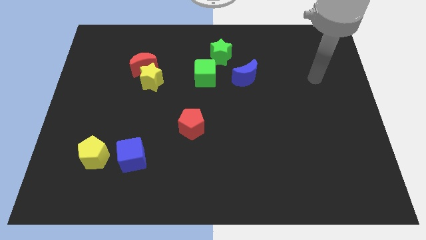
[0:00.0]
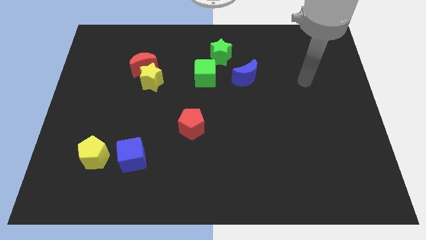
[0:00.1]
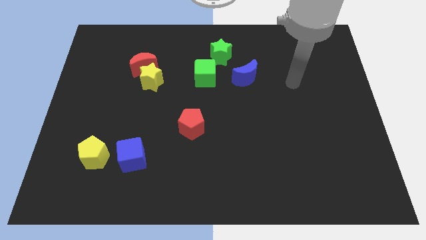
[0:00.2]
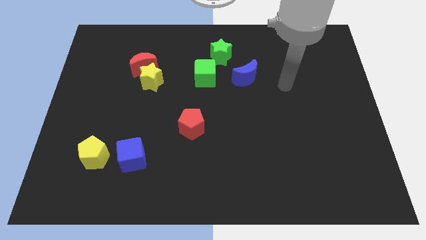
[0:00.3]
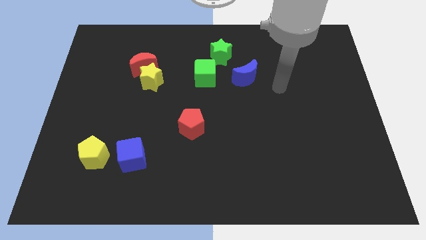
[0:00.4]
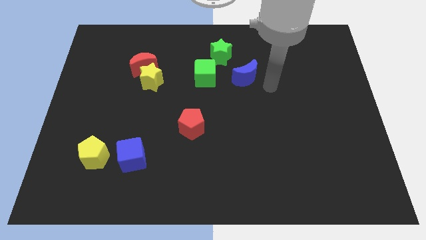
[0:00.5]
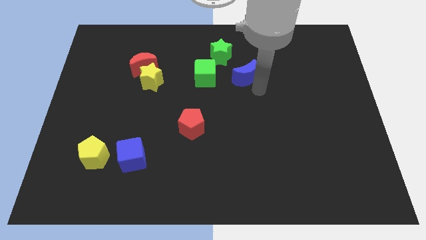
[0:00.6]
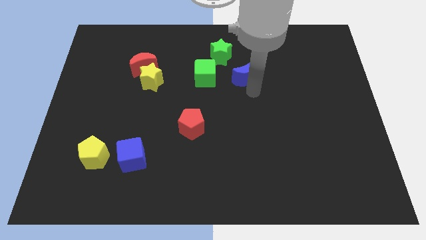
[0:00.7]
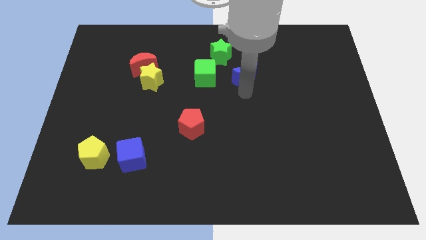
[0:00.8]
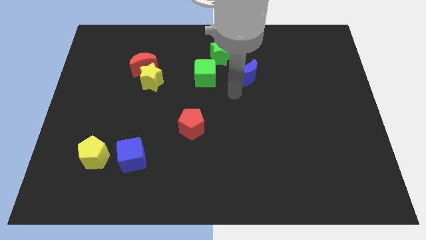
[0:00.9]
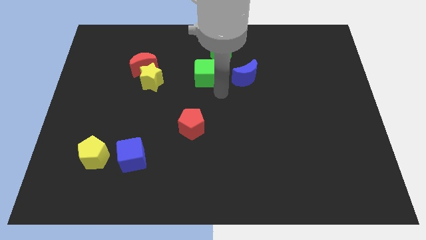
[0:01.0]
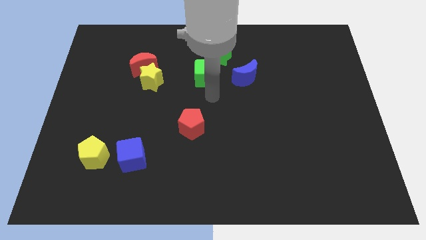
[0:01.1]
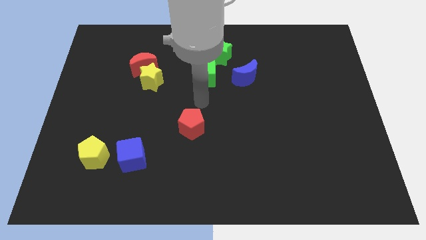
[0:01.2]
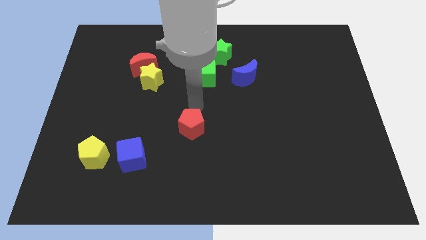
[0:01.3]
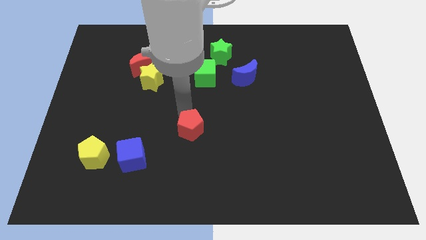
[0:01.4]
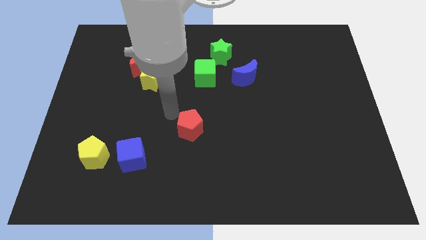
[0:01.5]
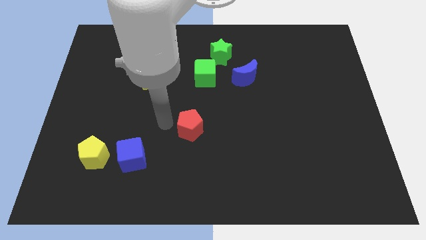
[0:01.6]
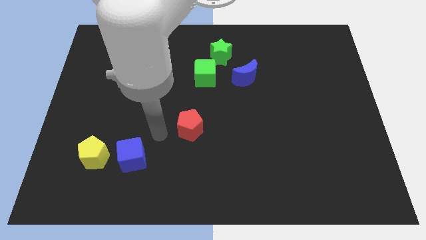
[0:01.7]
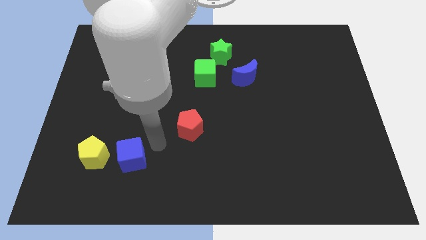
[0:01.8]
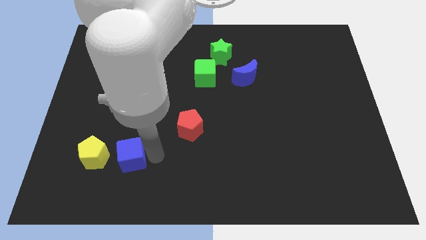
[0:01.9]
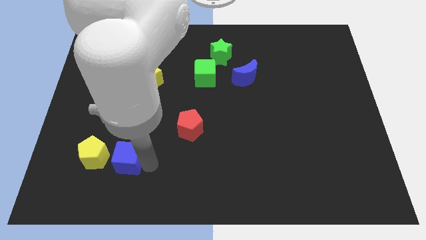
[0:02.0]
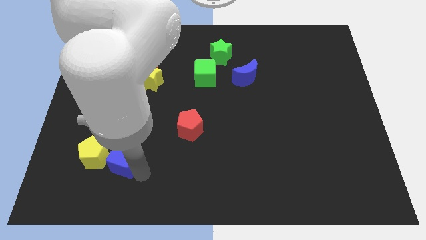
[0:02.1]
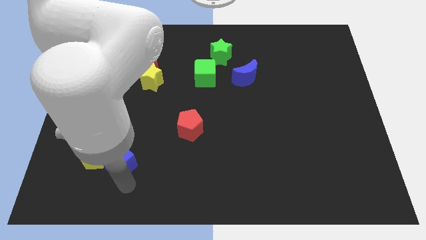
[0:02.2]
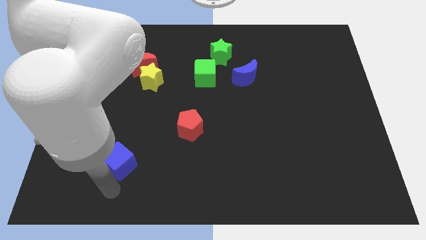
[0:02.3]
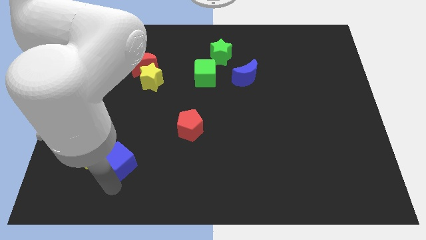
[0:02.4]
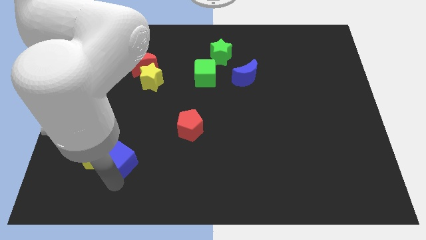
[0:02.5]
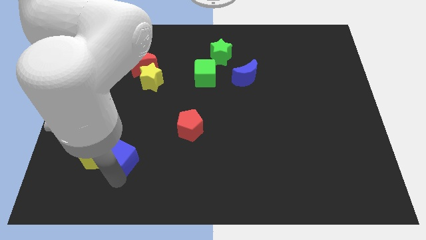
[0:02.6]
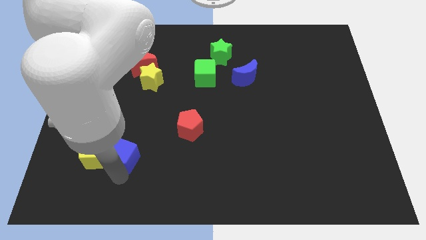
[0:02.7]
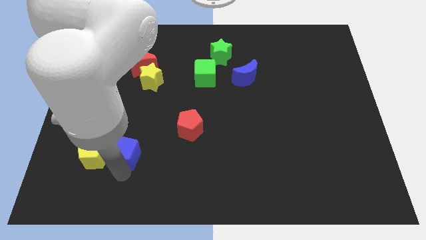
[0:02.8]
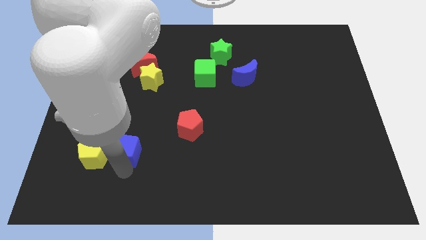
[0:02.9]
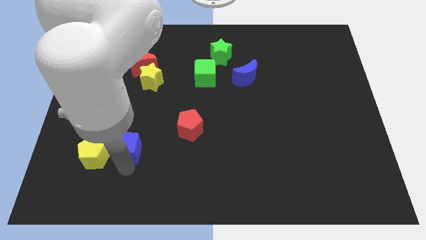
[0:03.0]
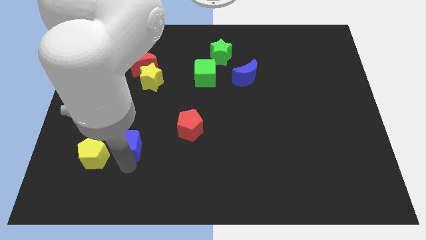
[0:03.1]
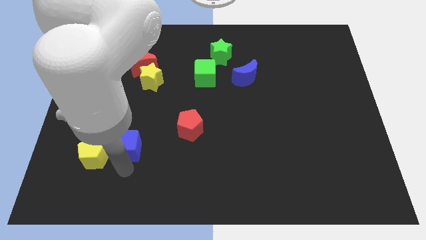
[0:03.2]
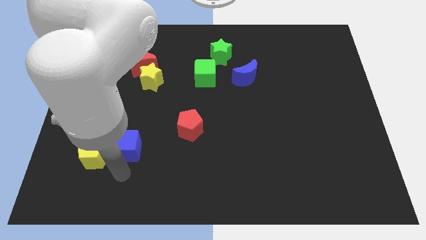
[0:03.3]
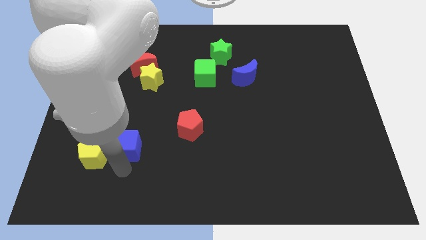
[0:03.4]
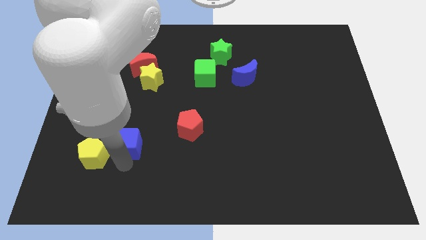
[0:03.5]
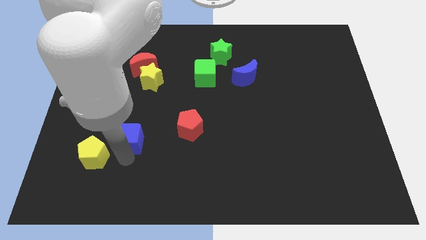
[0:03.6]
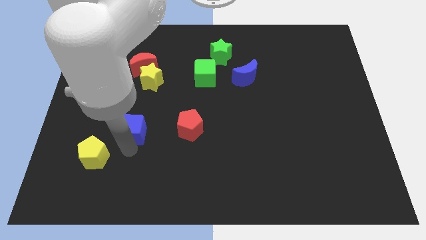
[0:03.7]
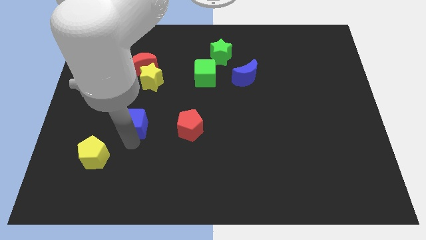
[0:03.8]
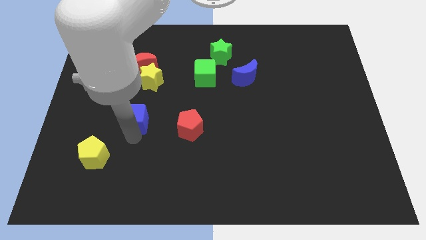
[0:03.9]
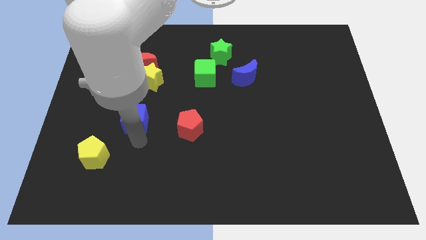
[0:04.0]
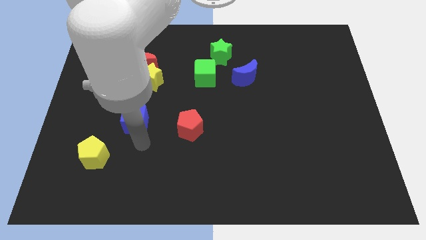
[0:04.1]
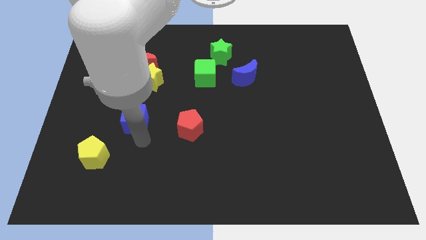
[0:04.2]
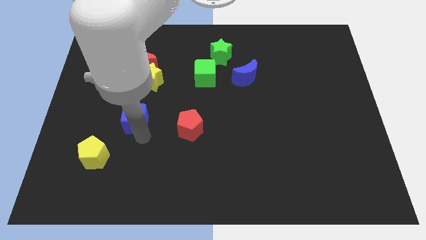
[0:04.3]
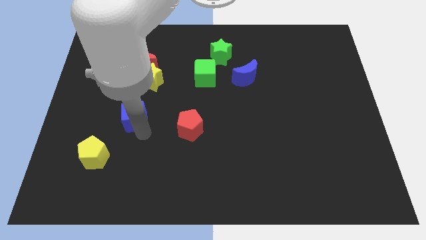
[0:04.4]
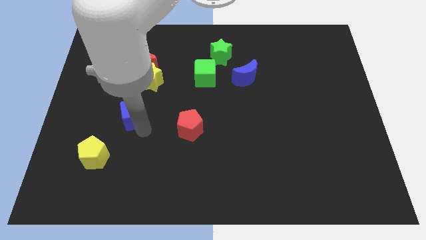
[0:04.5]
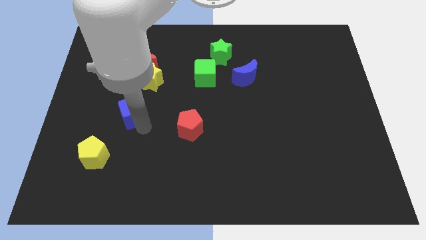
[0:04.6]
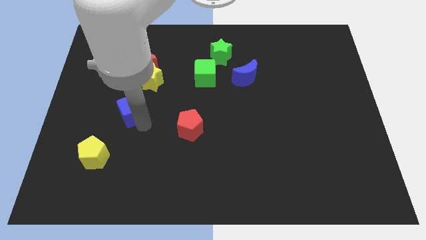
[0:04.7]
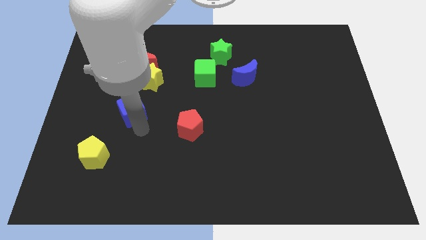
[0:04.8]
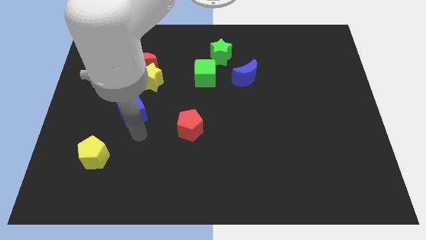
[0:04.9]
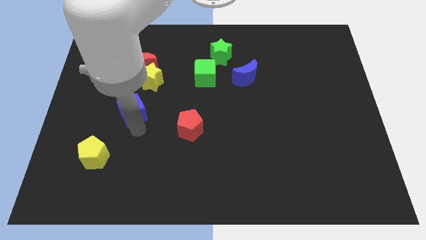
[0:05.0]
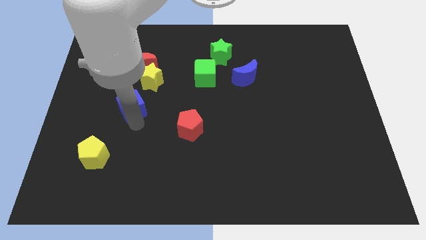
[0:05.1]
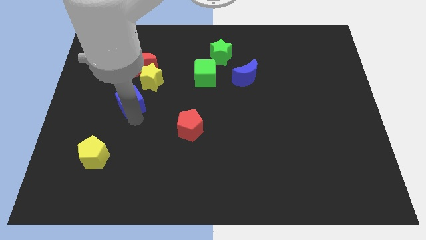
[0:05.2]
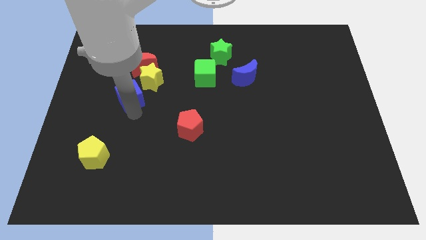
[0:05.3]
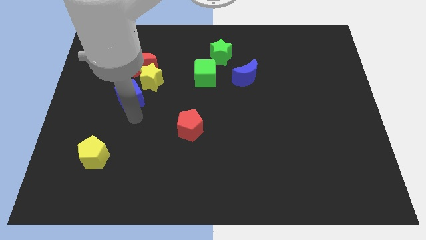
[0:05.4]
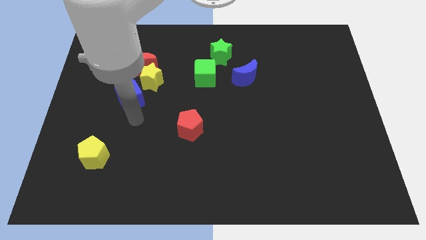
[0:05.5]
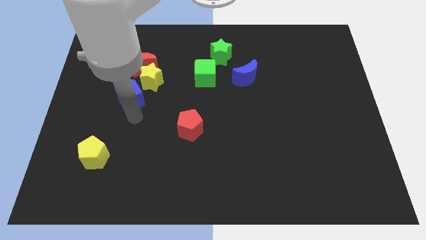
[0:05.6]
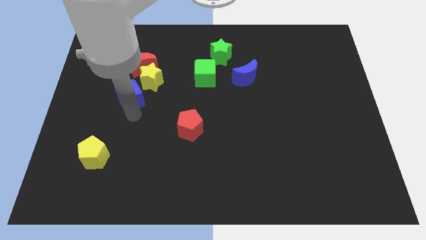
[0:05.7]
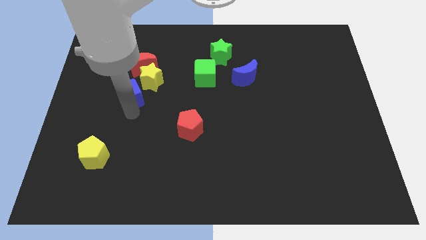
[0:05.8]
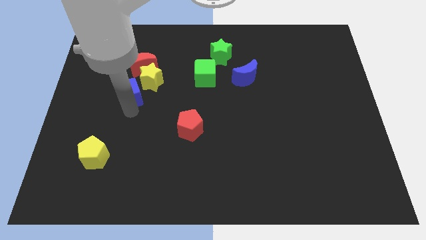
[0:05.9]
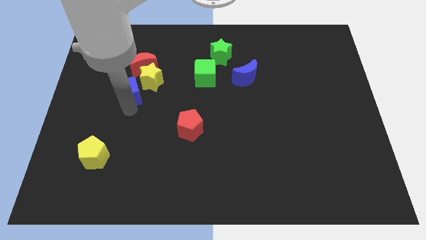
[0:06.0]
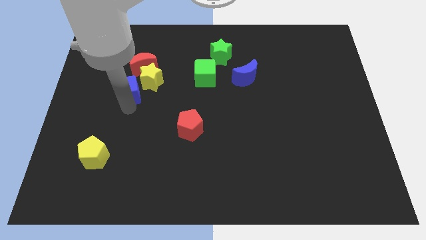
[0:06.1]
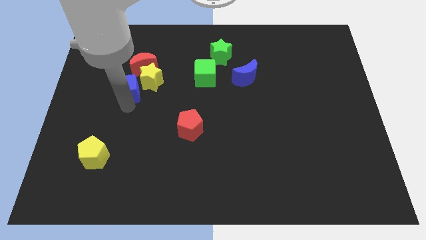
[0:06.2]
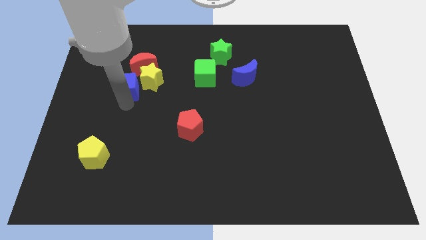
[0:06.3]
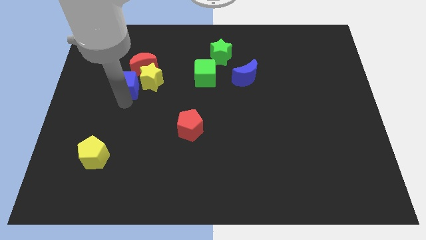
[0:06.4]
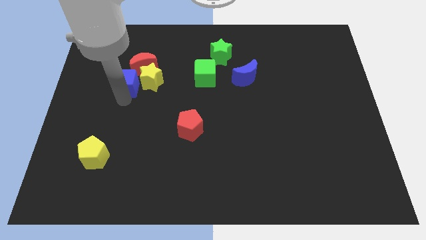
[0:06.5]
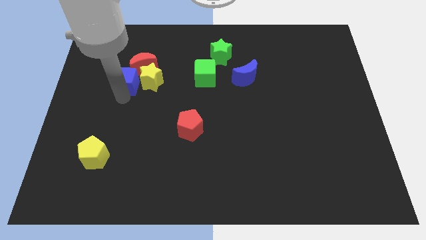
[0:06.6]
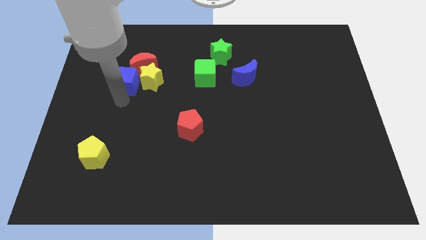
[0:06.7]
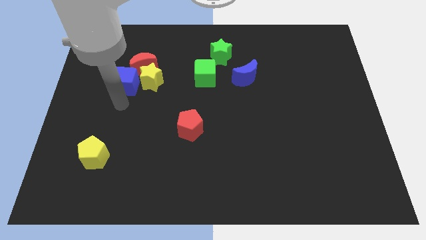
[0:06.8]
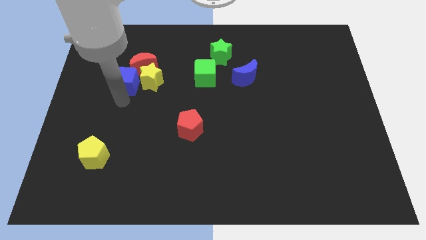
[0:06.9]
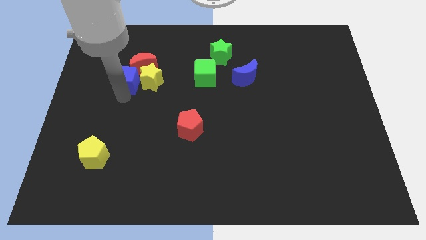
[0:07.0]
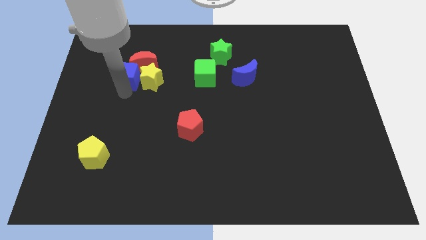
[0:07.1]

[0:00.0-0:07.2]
move the blue cube towards the red moon

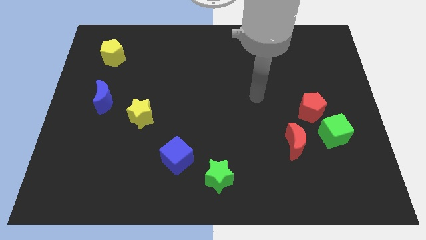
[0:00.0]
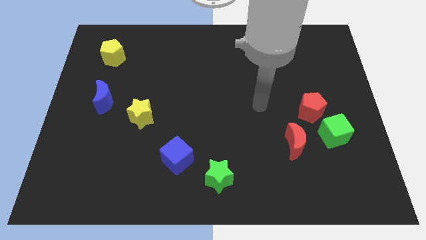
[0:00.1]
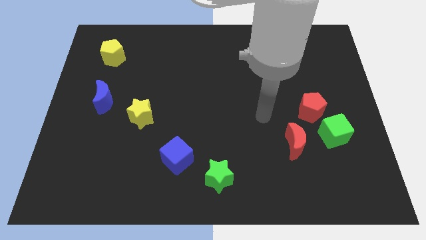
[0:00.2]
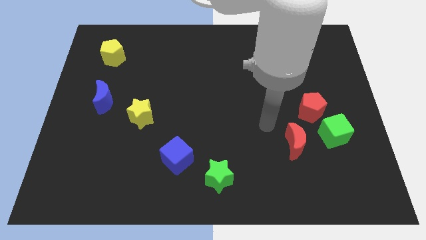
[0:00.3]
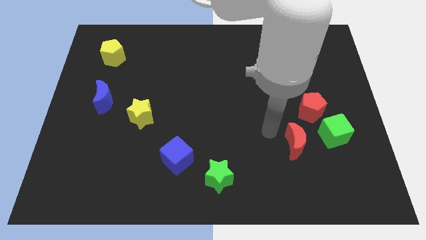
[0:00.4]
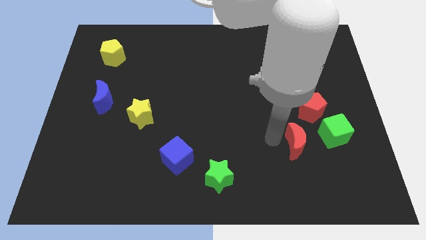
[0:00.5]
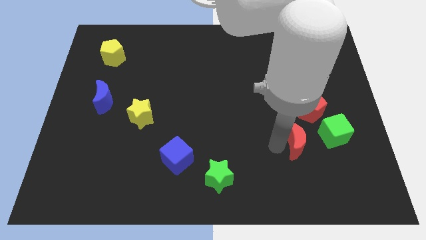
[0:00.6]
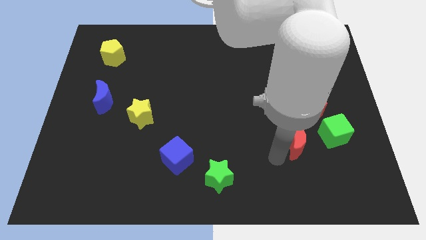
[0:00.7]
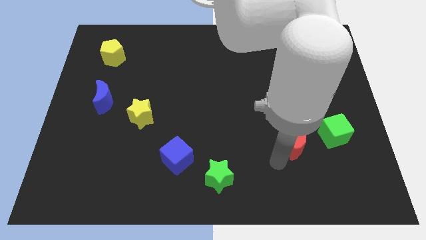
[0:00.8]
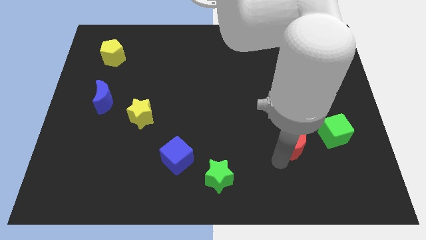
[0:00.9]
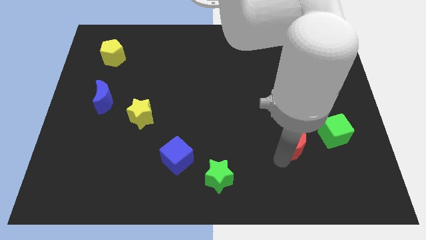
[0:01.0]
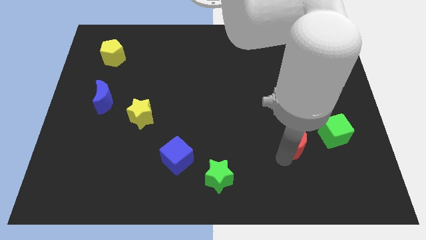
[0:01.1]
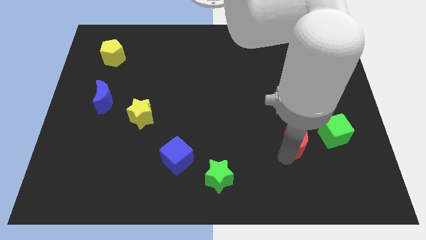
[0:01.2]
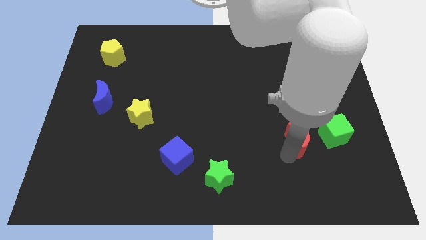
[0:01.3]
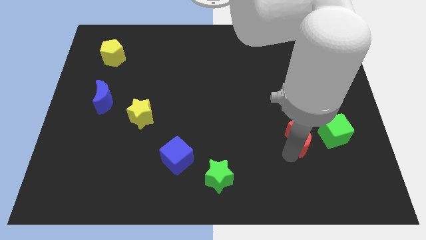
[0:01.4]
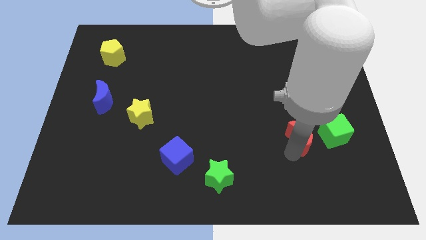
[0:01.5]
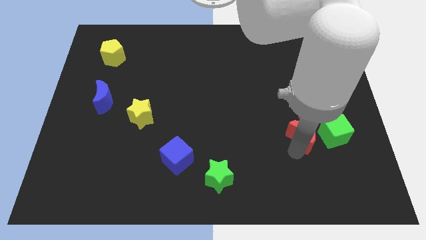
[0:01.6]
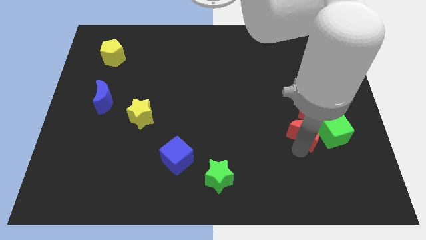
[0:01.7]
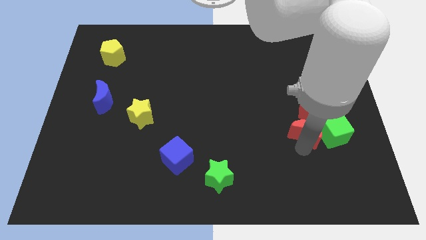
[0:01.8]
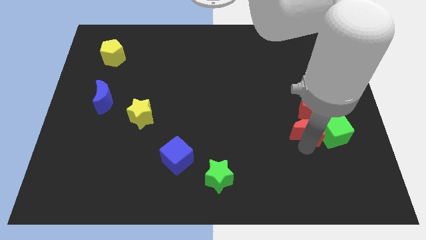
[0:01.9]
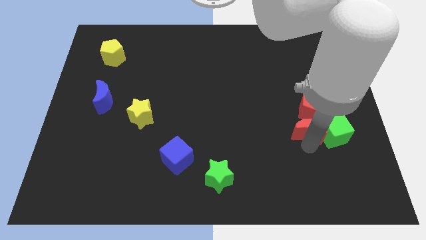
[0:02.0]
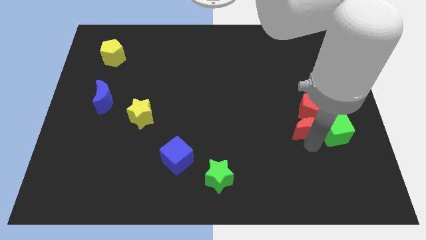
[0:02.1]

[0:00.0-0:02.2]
put the red moon towards the red pentagon
